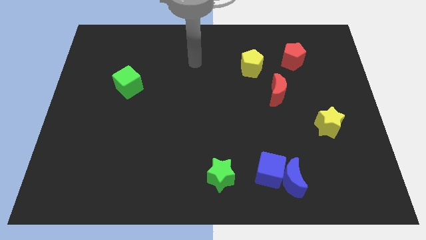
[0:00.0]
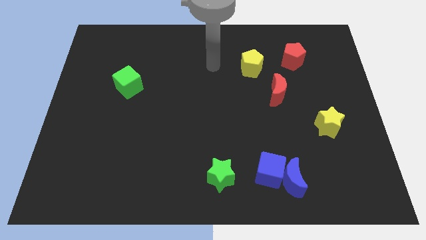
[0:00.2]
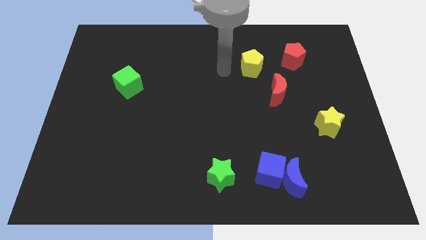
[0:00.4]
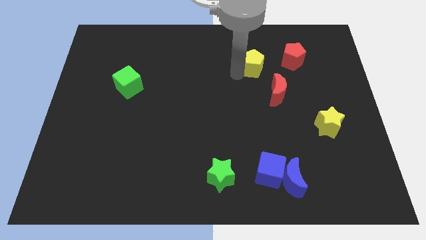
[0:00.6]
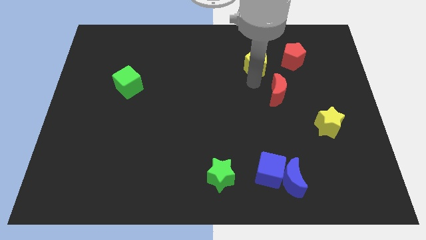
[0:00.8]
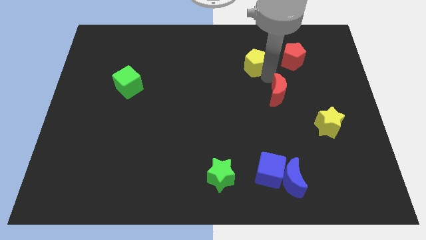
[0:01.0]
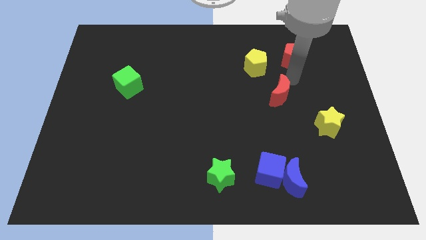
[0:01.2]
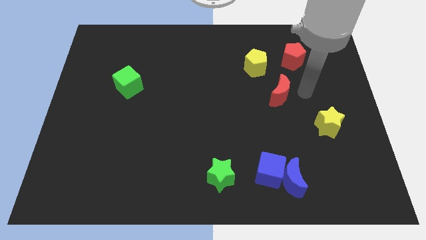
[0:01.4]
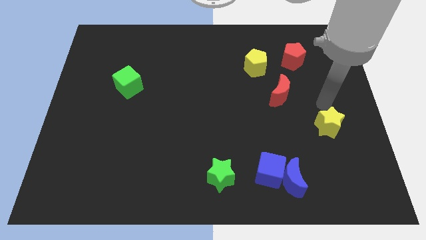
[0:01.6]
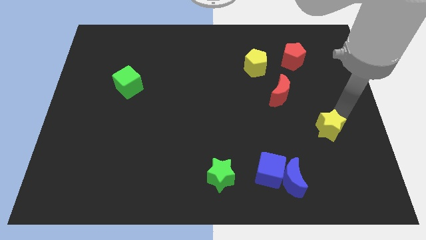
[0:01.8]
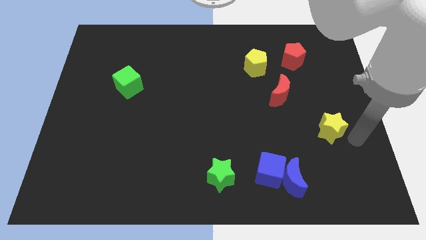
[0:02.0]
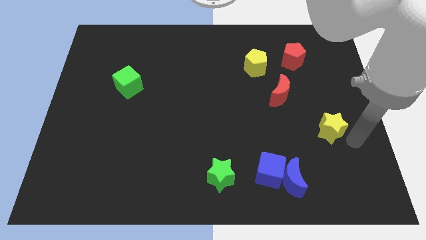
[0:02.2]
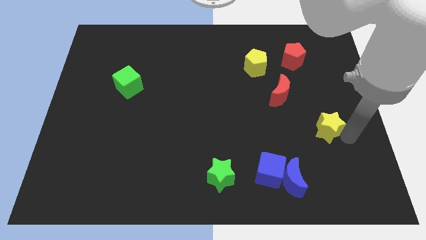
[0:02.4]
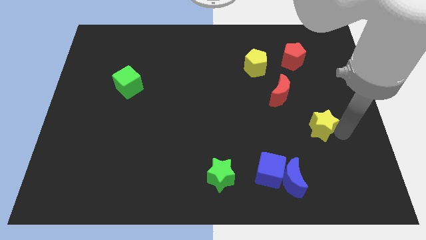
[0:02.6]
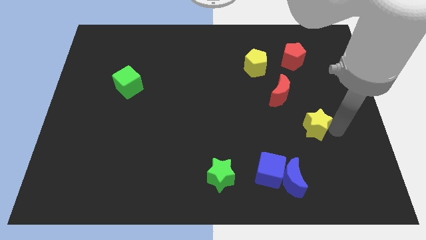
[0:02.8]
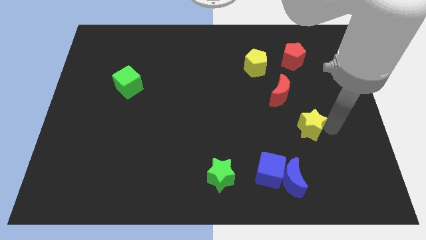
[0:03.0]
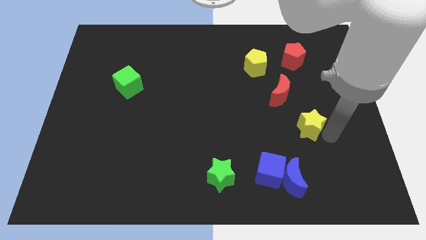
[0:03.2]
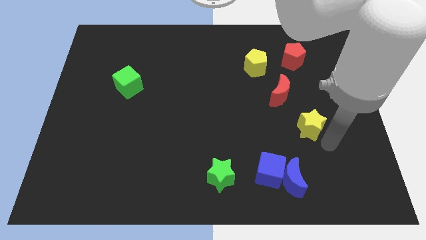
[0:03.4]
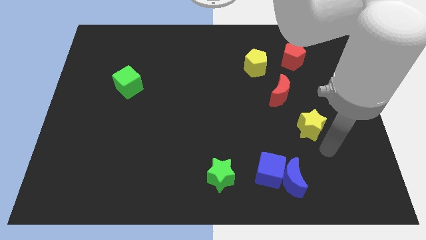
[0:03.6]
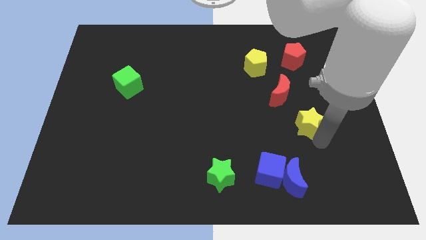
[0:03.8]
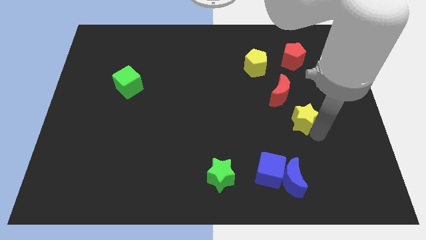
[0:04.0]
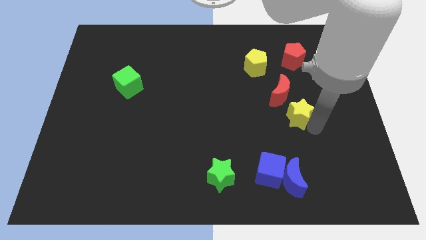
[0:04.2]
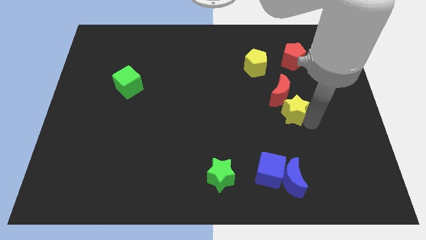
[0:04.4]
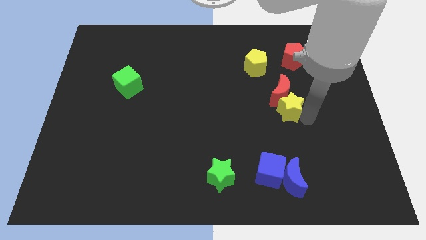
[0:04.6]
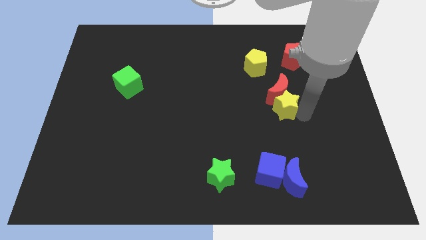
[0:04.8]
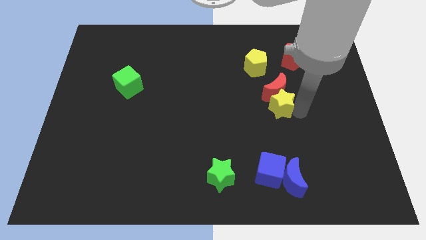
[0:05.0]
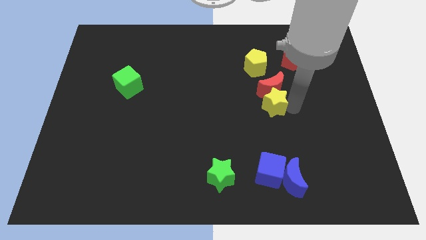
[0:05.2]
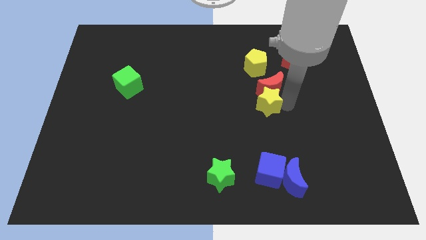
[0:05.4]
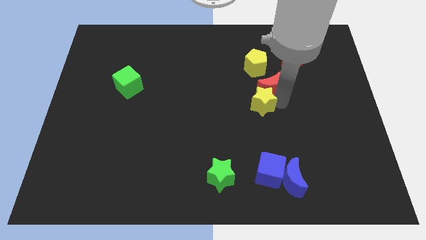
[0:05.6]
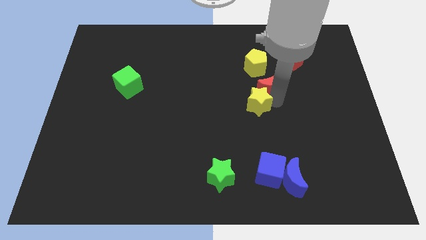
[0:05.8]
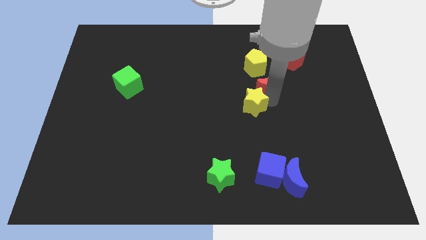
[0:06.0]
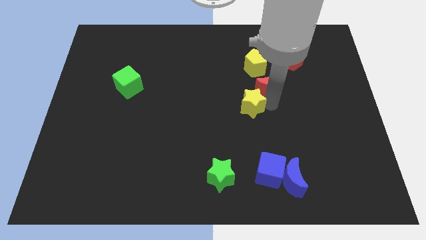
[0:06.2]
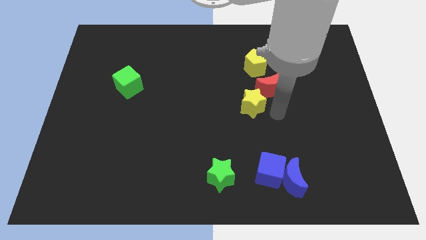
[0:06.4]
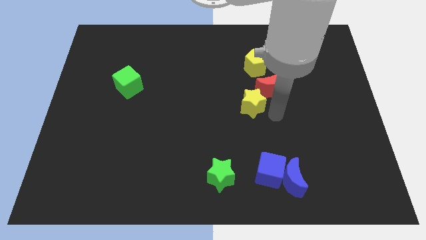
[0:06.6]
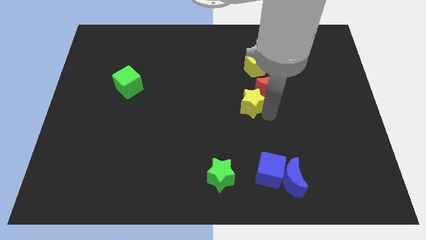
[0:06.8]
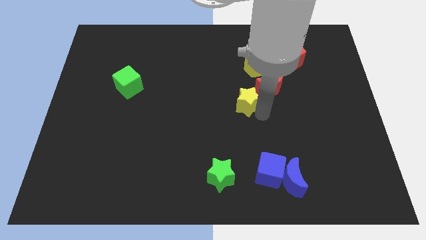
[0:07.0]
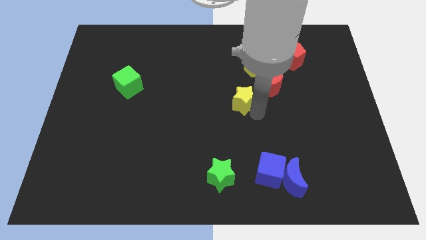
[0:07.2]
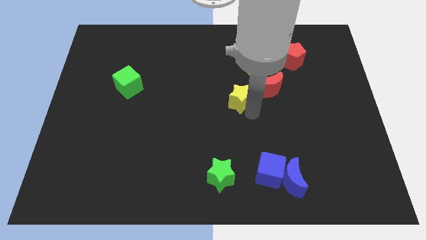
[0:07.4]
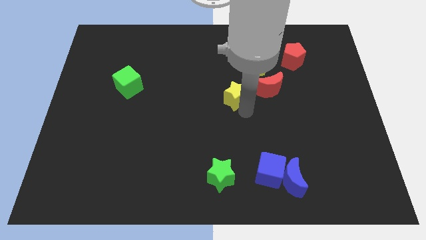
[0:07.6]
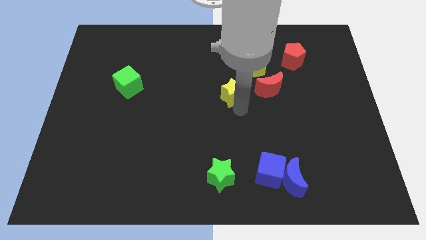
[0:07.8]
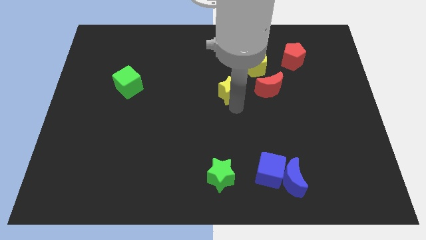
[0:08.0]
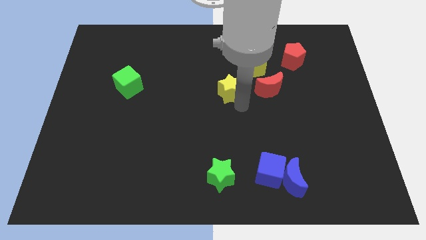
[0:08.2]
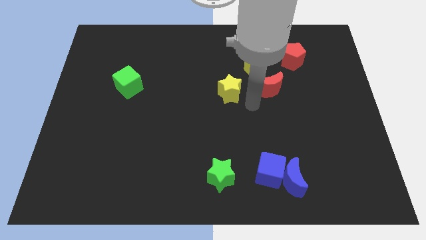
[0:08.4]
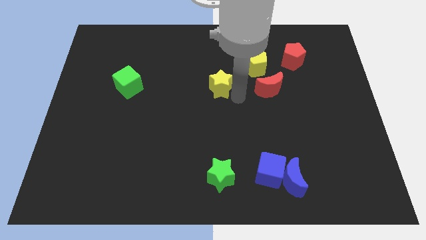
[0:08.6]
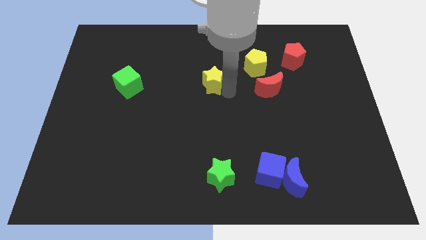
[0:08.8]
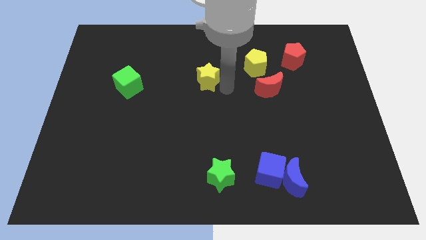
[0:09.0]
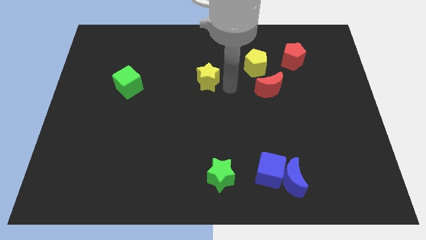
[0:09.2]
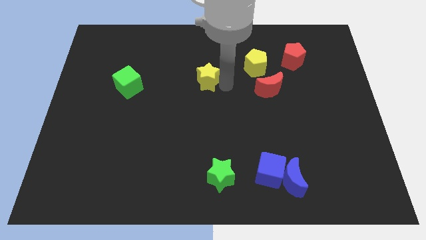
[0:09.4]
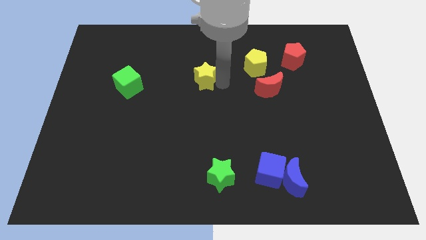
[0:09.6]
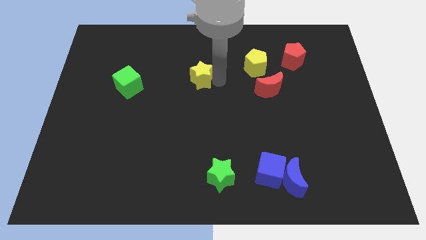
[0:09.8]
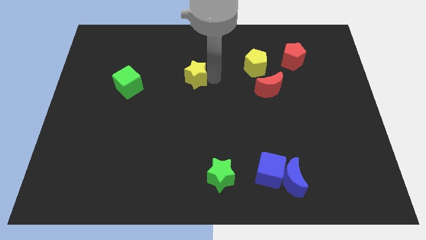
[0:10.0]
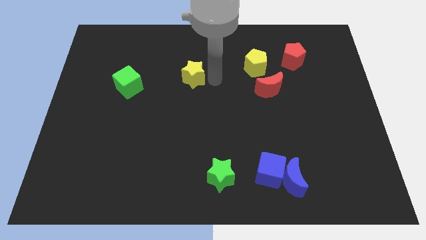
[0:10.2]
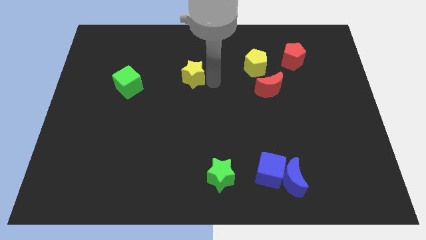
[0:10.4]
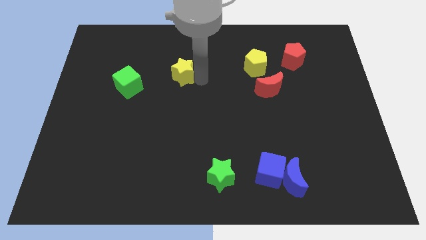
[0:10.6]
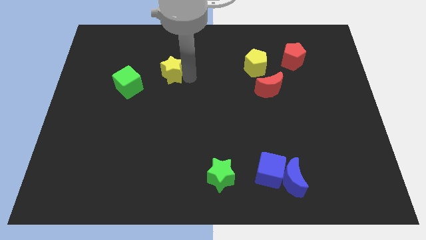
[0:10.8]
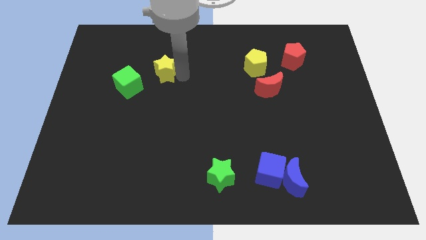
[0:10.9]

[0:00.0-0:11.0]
put the yellow star to the top right of the green cube

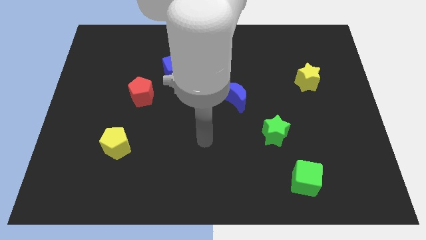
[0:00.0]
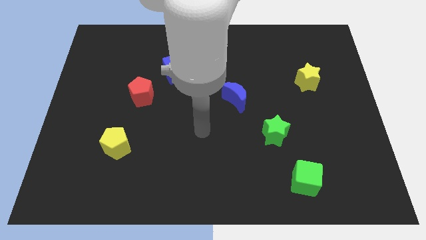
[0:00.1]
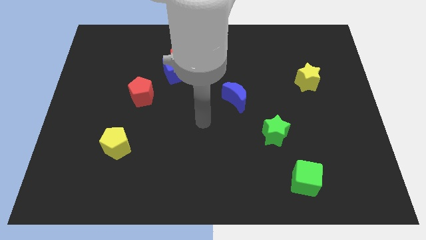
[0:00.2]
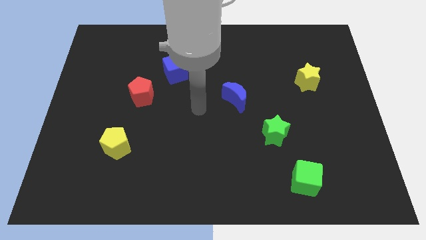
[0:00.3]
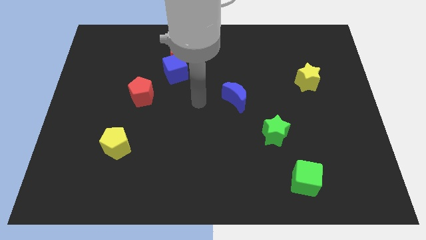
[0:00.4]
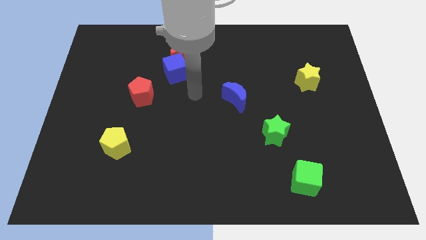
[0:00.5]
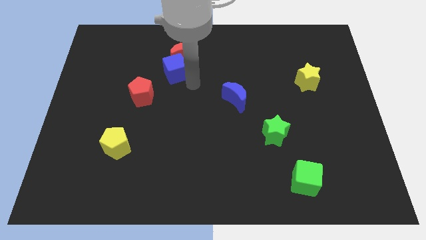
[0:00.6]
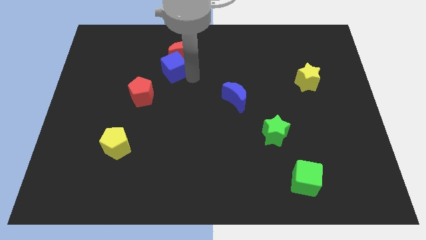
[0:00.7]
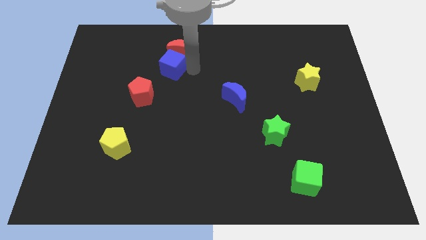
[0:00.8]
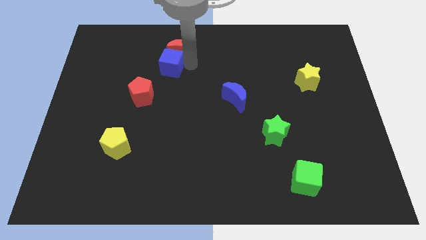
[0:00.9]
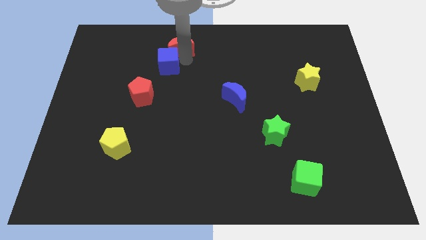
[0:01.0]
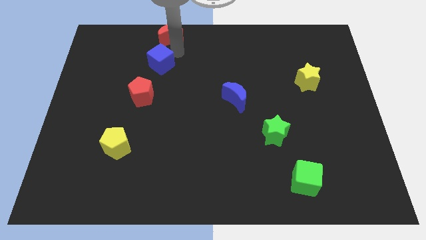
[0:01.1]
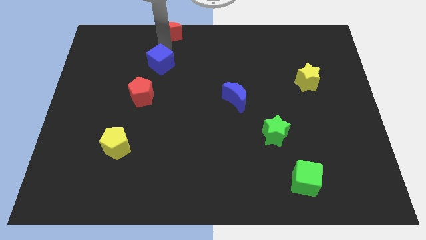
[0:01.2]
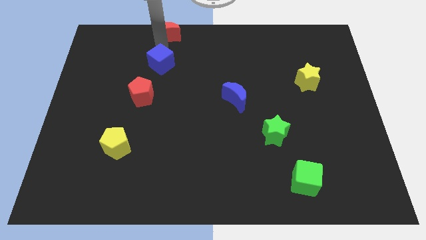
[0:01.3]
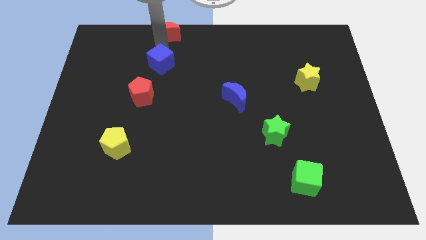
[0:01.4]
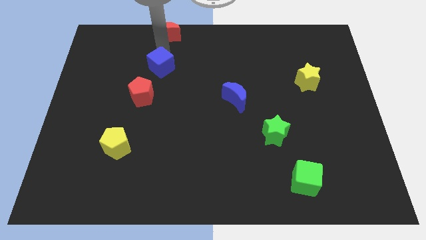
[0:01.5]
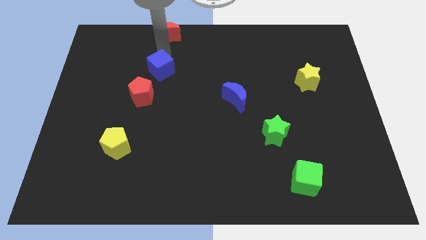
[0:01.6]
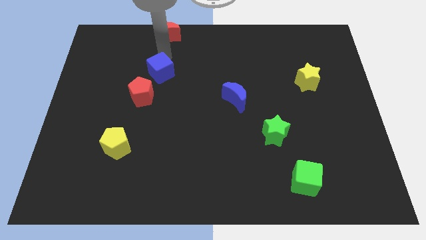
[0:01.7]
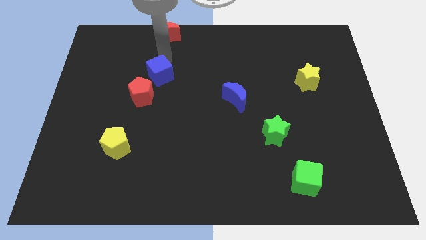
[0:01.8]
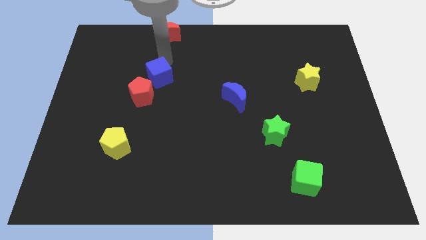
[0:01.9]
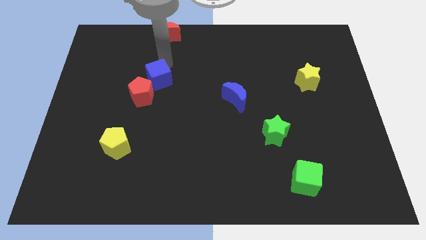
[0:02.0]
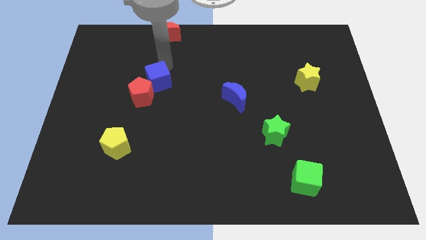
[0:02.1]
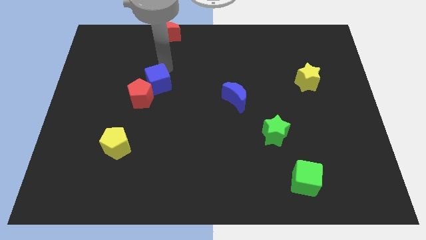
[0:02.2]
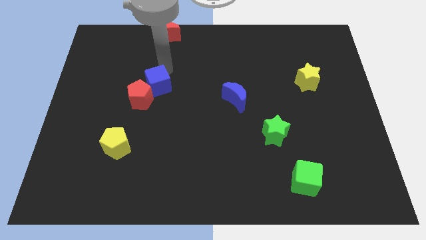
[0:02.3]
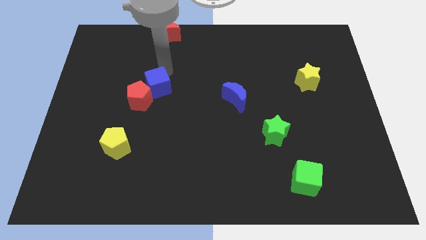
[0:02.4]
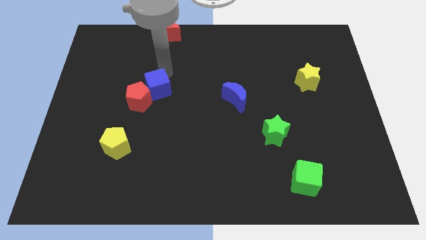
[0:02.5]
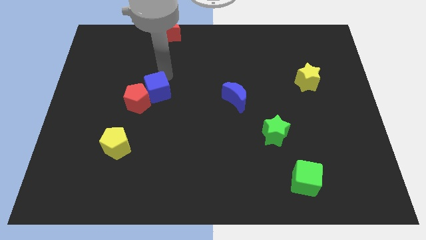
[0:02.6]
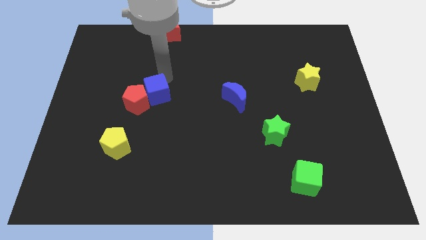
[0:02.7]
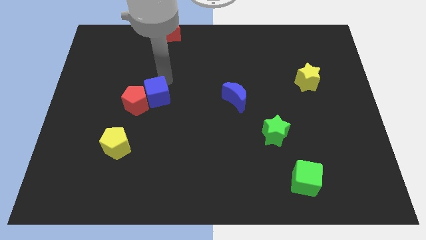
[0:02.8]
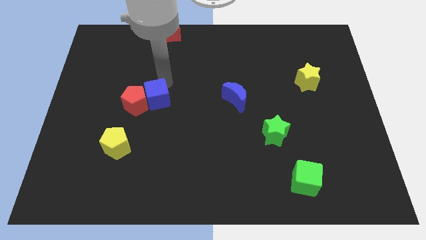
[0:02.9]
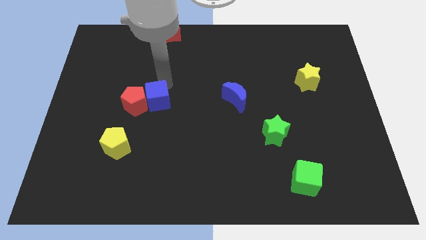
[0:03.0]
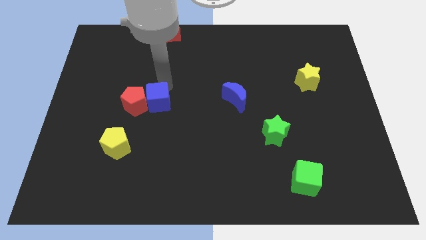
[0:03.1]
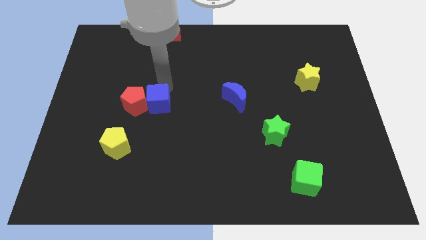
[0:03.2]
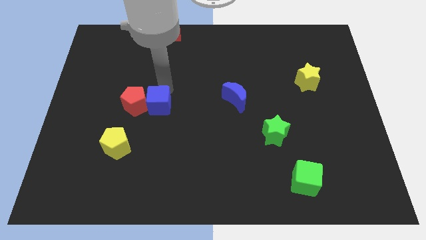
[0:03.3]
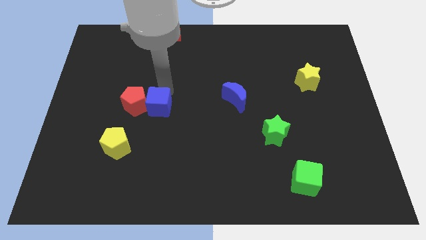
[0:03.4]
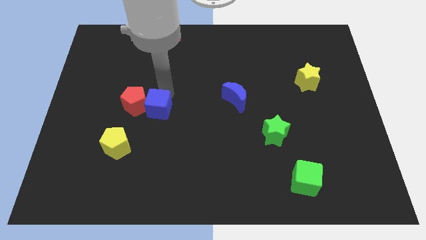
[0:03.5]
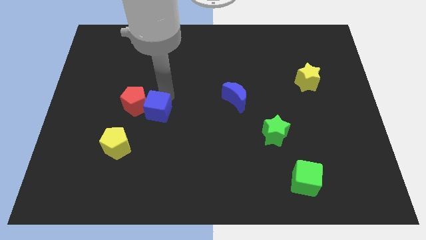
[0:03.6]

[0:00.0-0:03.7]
push the blue cube to the top right of the yellow pentagon
